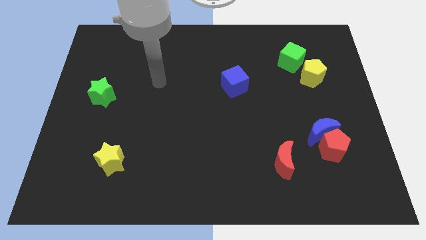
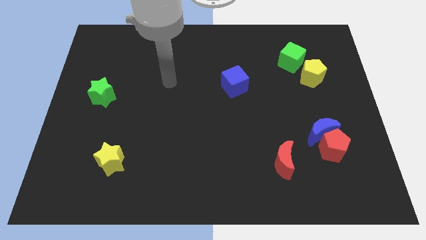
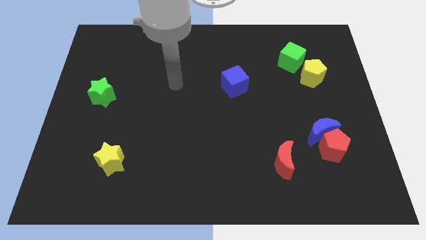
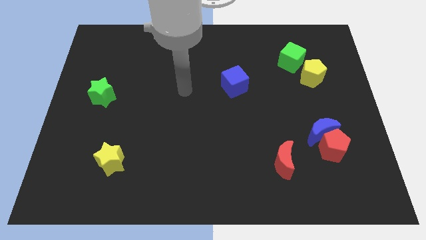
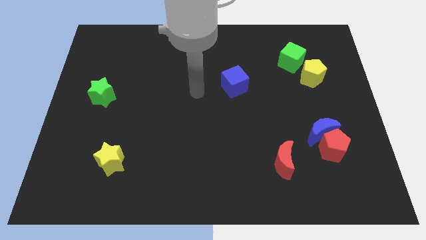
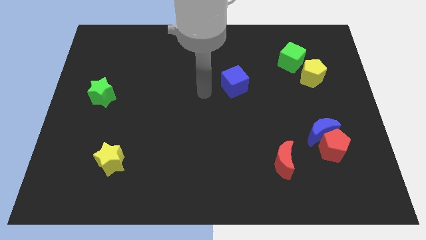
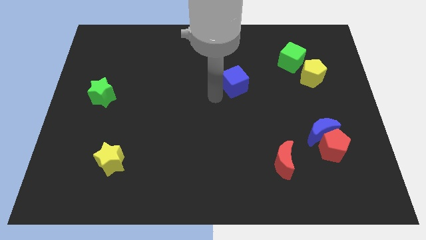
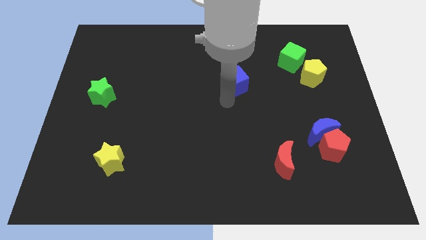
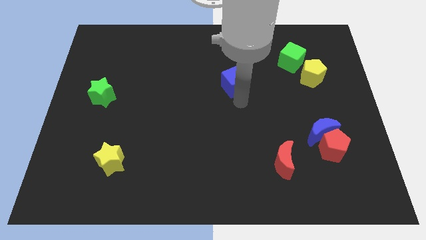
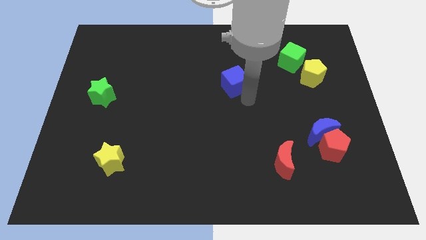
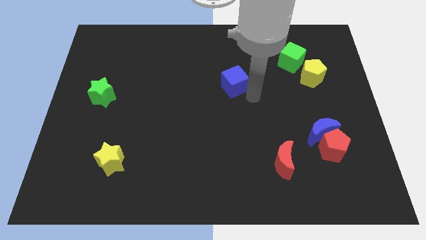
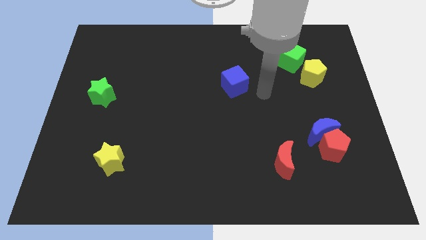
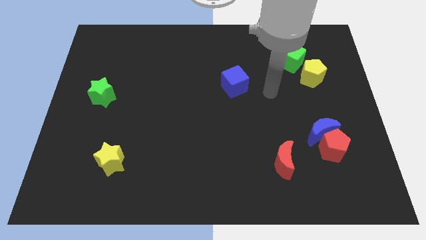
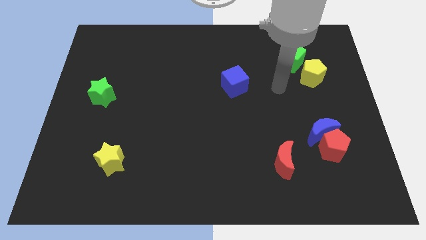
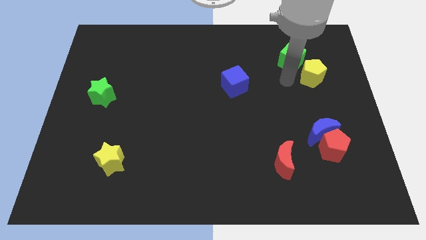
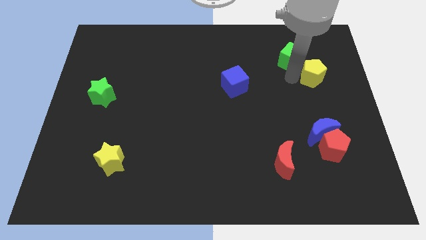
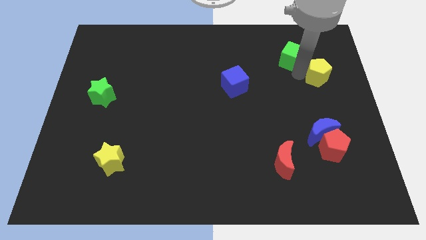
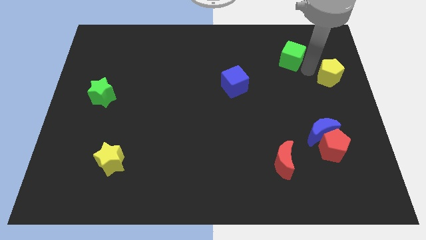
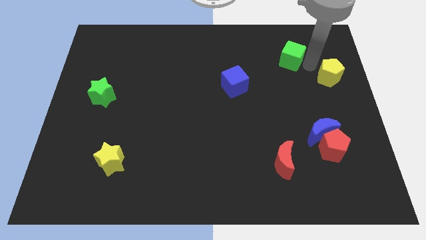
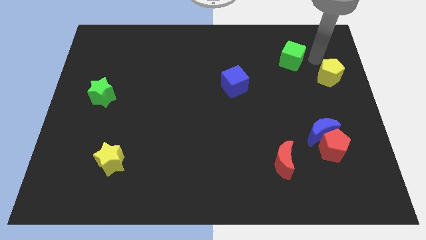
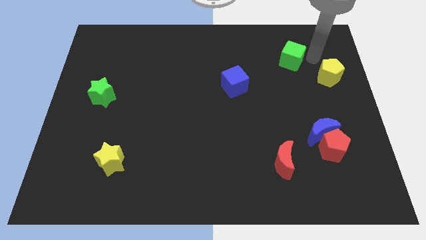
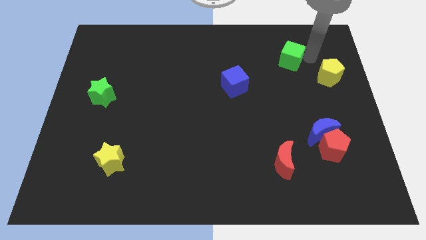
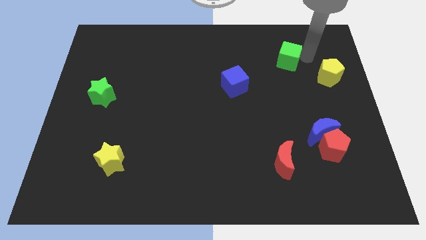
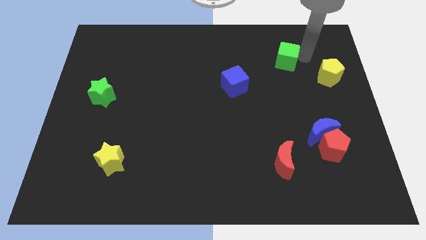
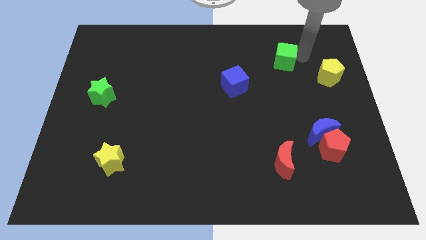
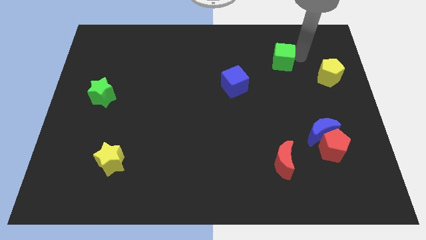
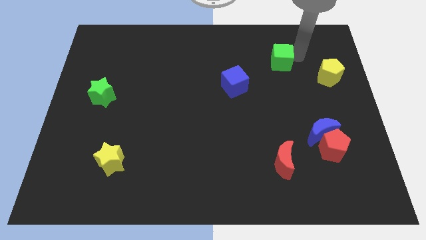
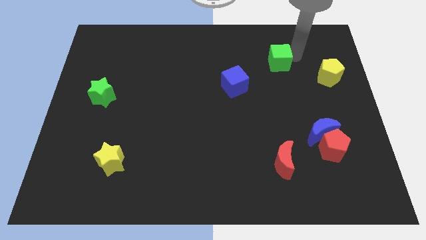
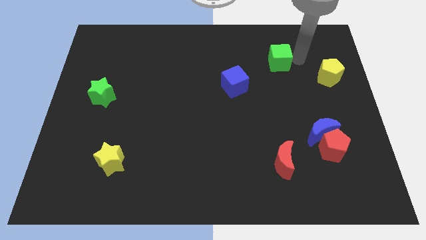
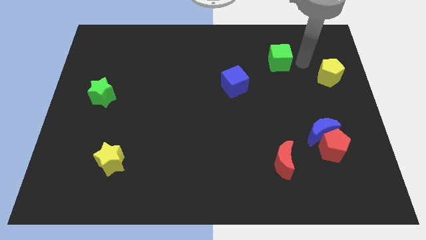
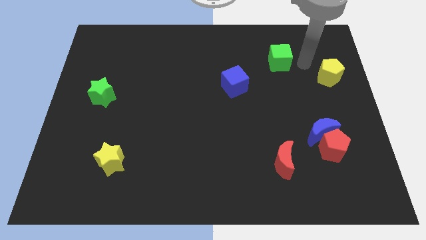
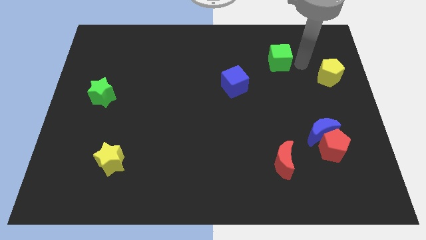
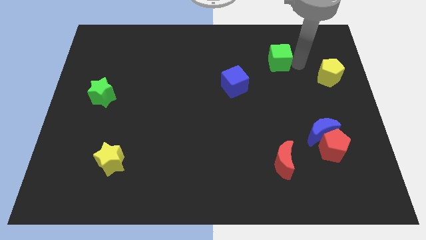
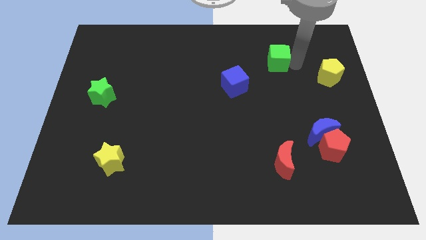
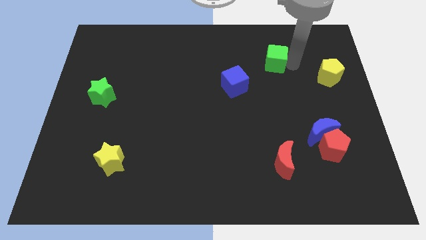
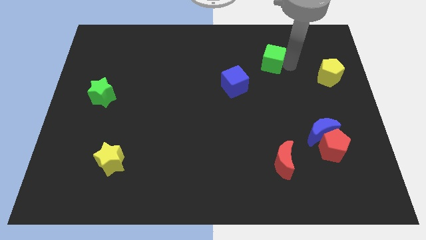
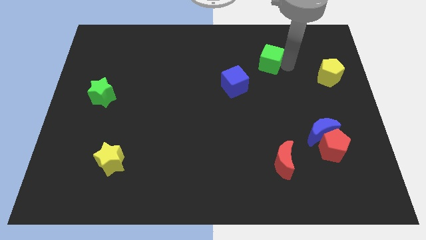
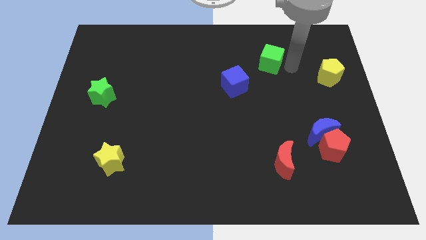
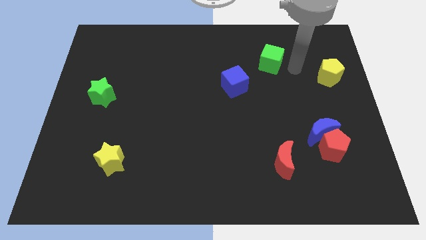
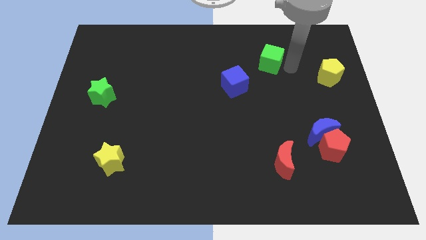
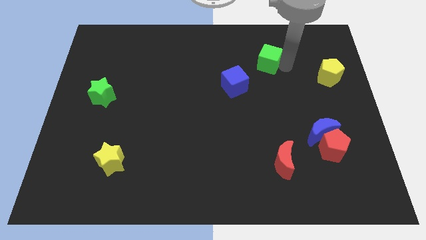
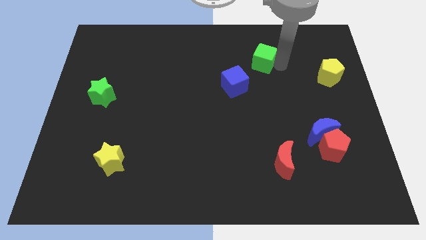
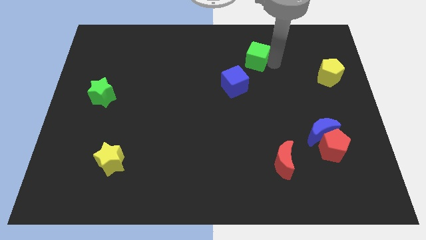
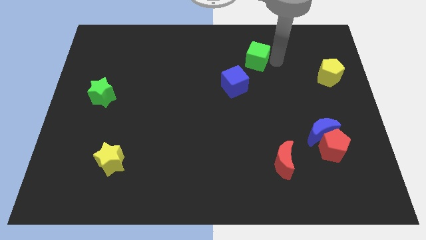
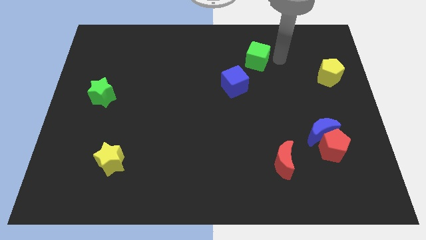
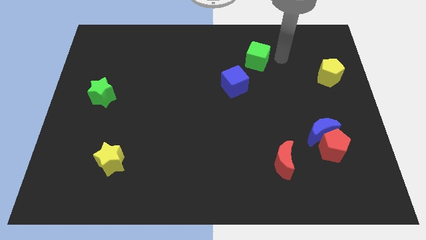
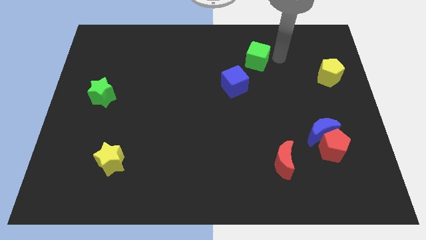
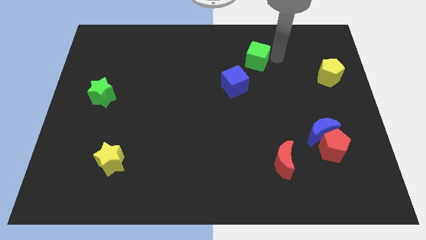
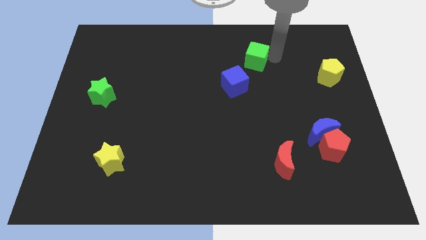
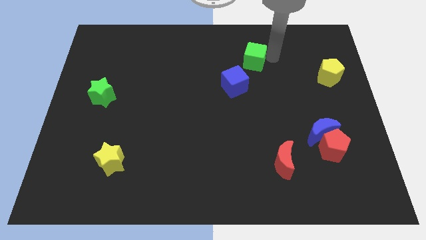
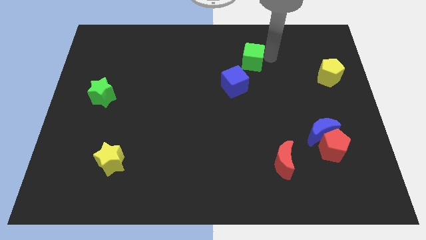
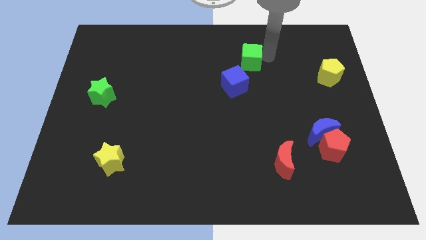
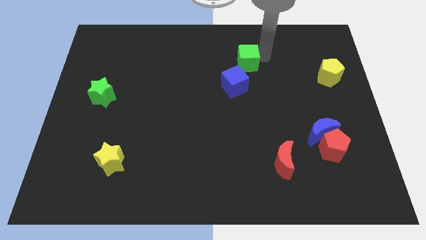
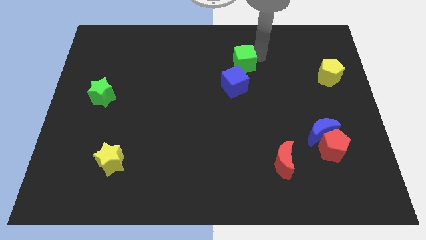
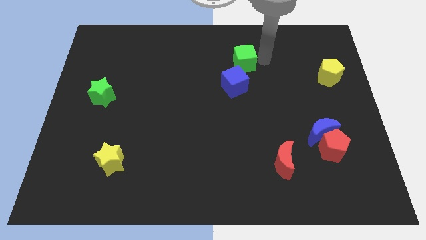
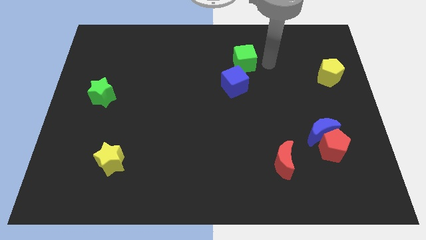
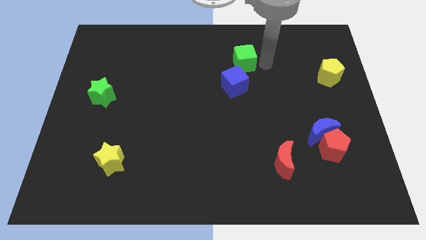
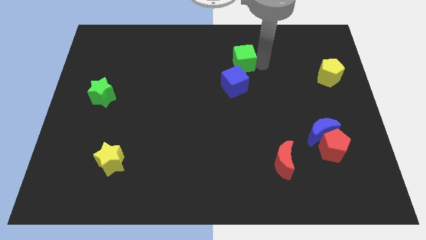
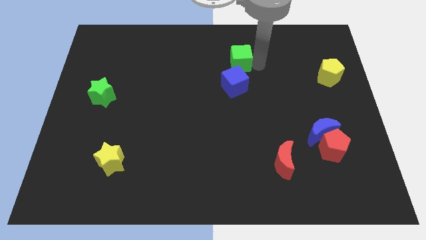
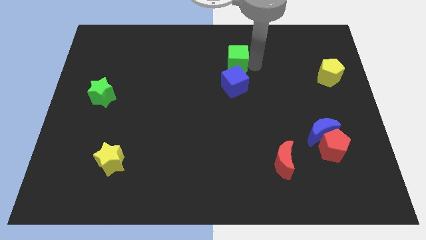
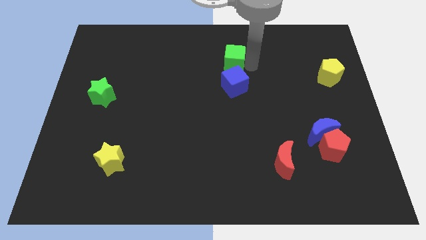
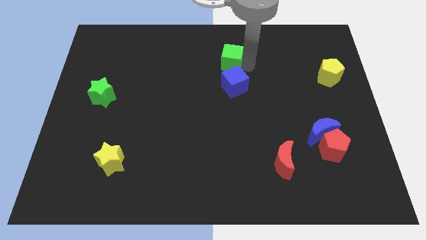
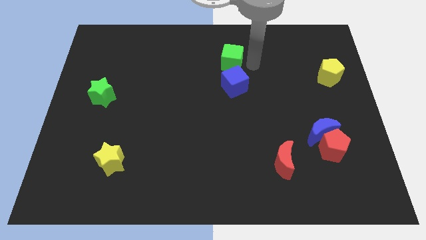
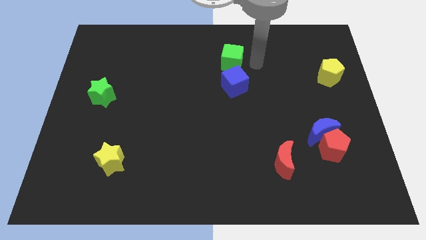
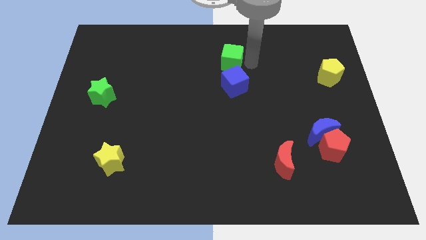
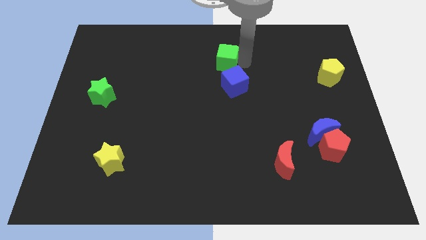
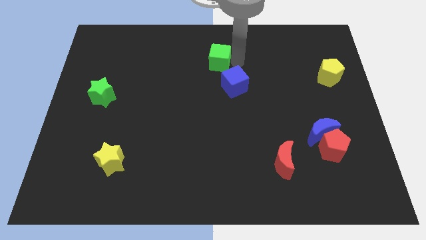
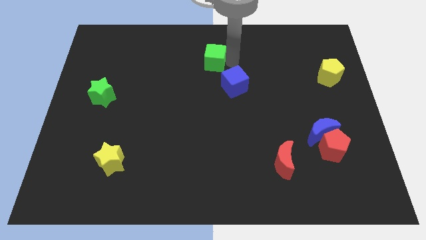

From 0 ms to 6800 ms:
push the green cube left

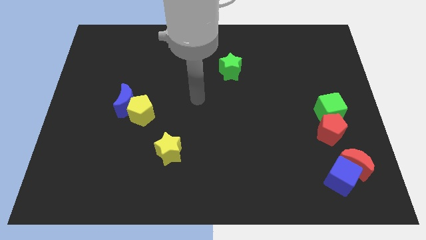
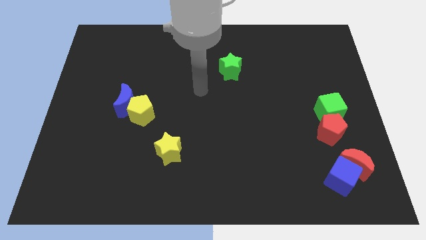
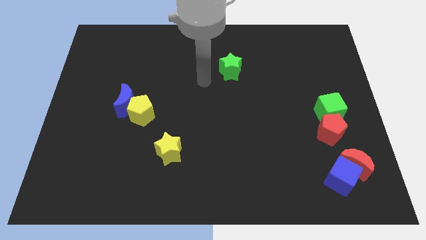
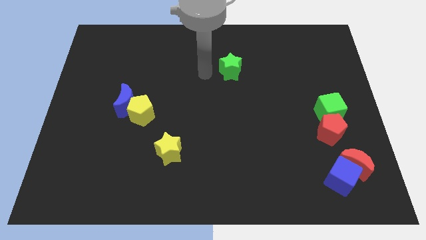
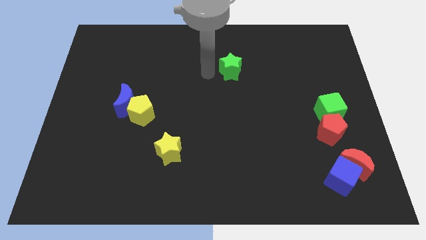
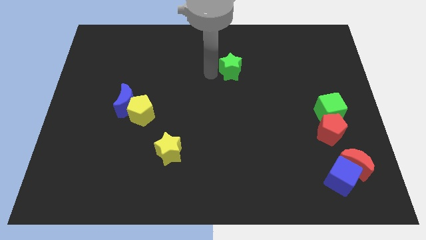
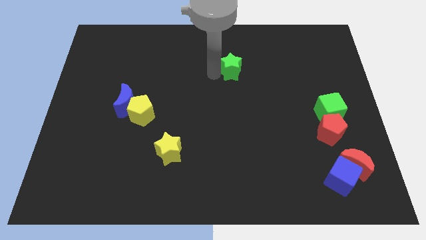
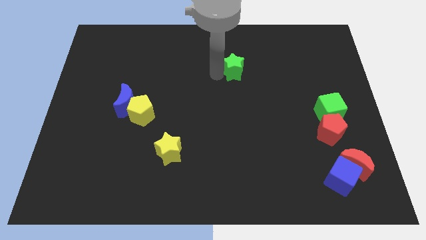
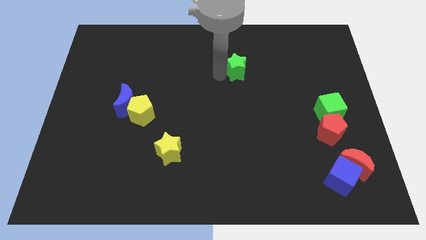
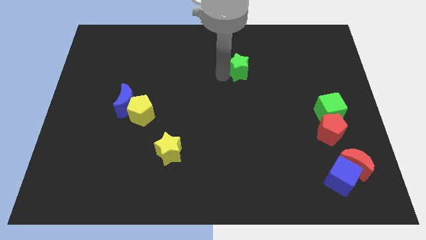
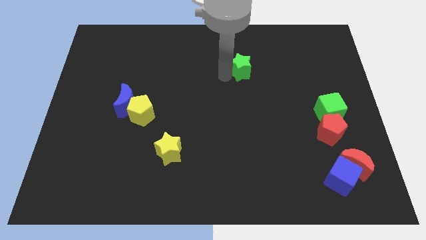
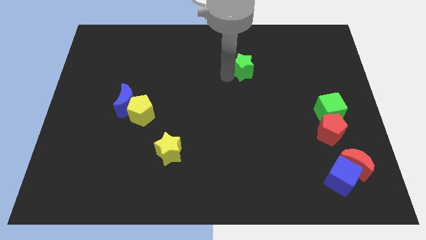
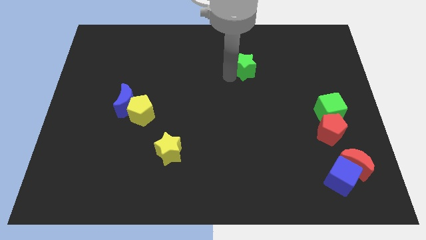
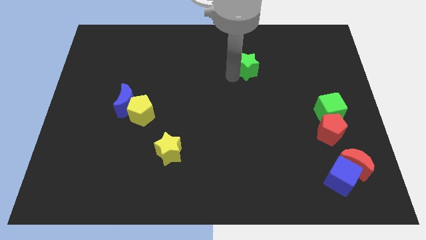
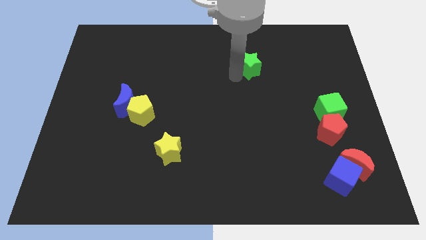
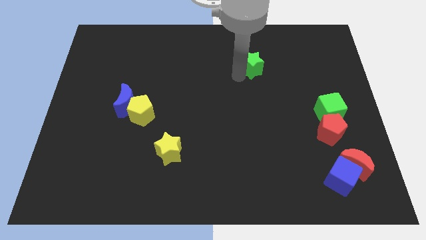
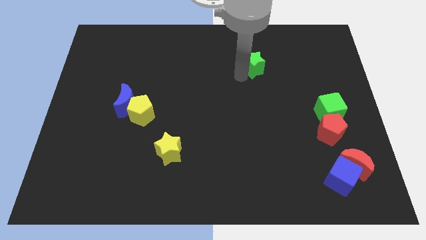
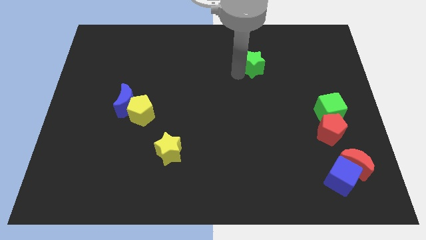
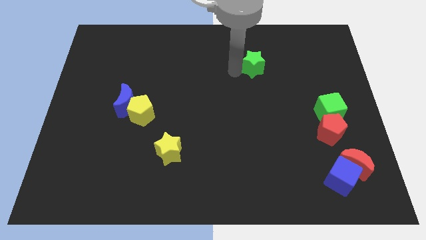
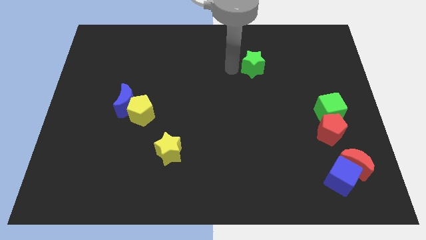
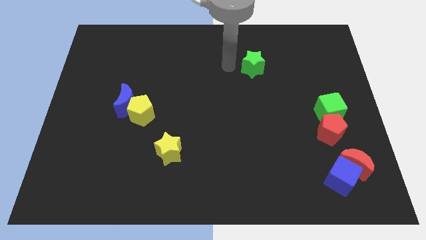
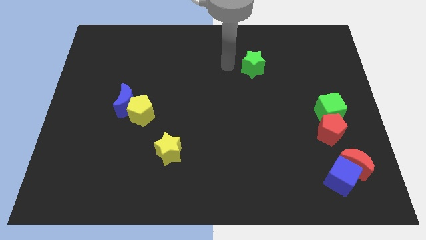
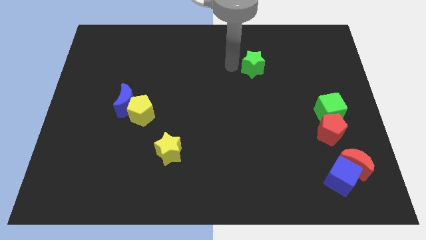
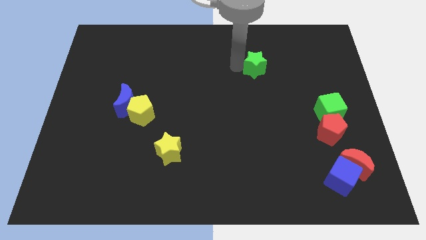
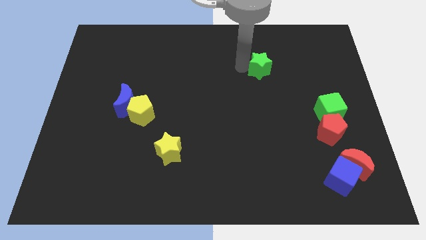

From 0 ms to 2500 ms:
push the green star to the right a little
